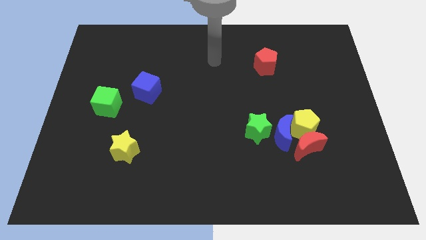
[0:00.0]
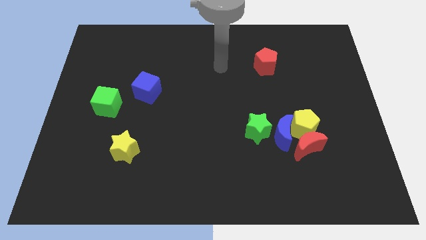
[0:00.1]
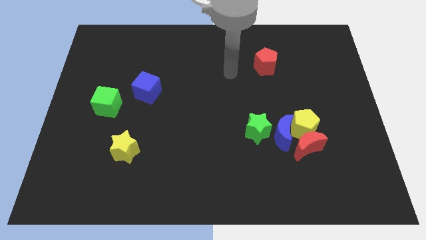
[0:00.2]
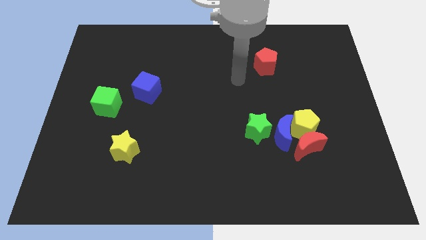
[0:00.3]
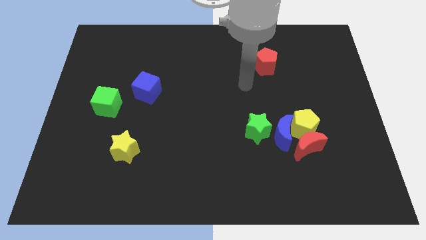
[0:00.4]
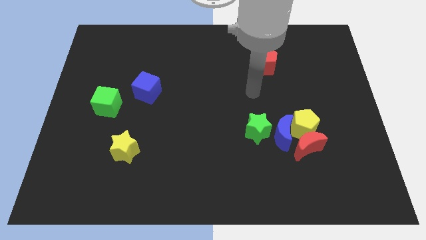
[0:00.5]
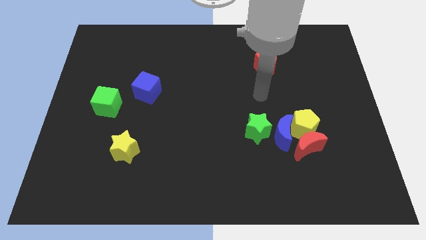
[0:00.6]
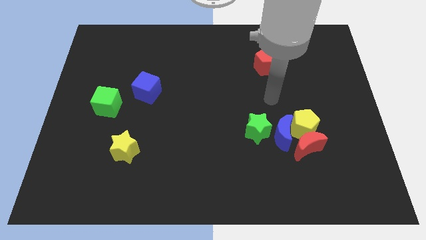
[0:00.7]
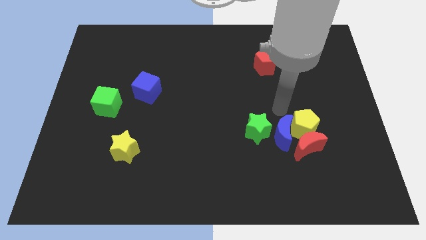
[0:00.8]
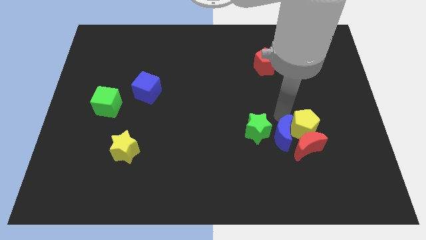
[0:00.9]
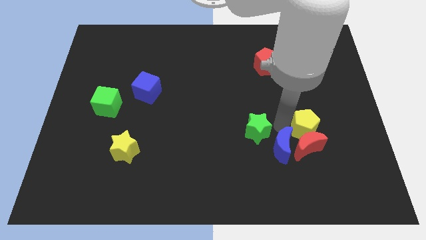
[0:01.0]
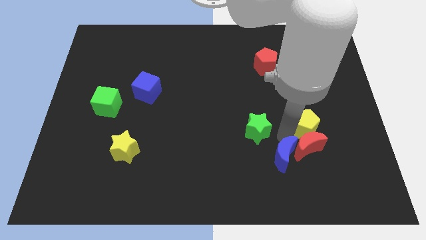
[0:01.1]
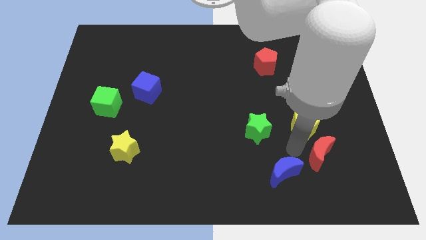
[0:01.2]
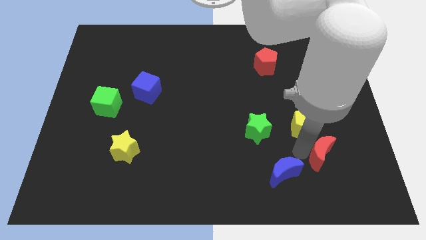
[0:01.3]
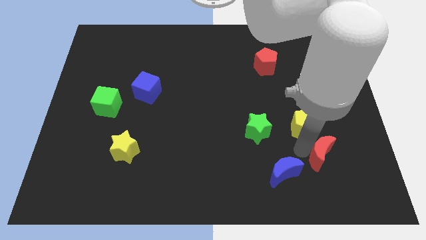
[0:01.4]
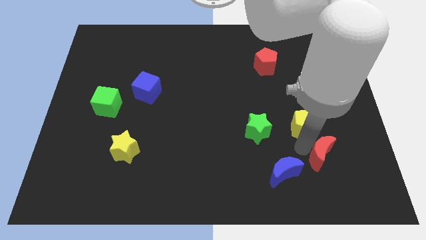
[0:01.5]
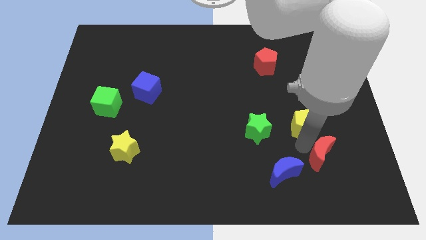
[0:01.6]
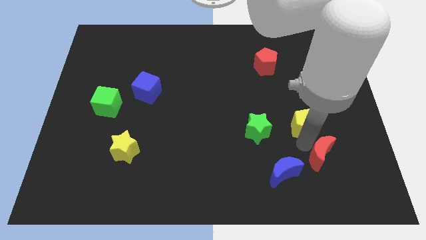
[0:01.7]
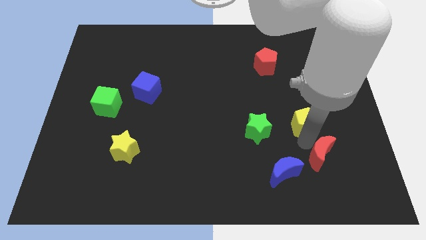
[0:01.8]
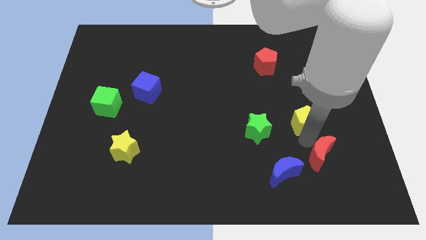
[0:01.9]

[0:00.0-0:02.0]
move the yellow pentagon away from the red moon and blue moon

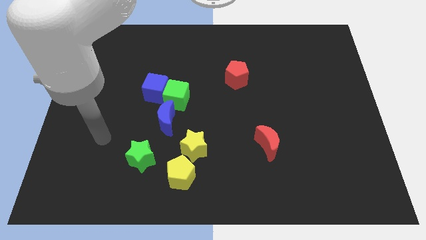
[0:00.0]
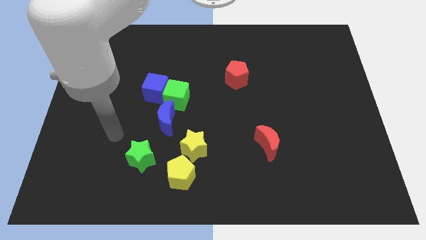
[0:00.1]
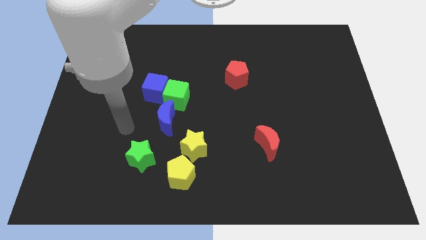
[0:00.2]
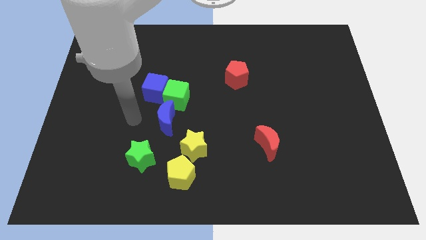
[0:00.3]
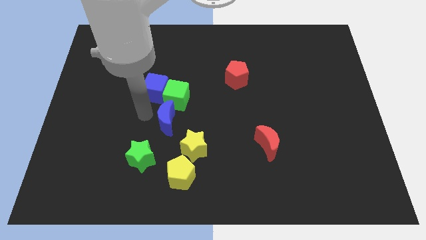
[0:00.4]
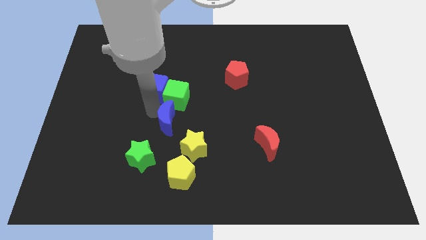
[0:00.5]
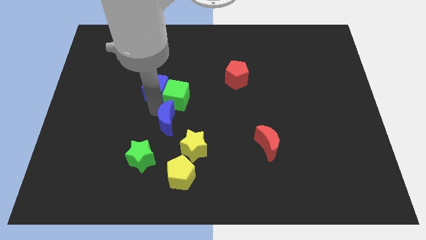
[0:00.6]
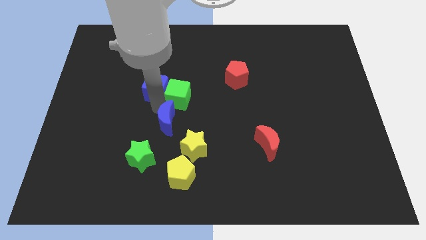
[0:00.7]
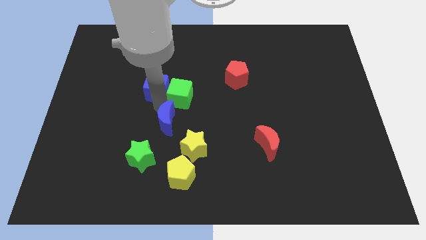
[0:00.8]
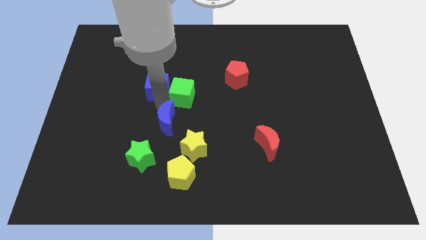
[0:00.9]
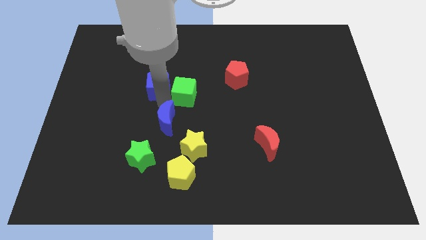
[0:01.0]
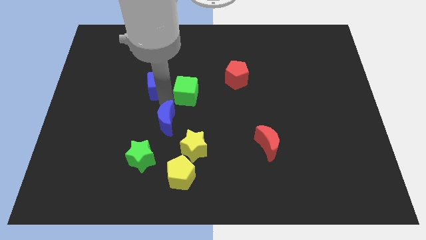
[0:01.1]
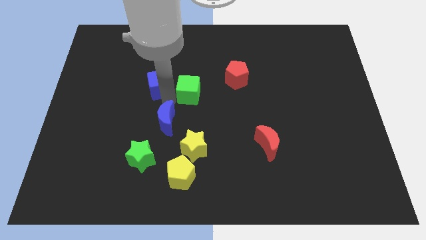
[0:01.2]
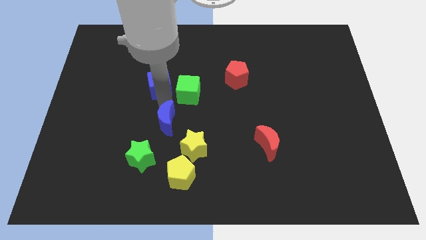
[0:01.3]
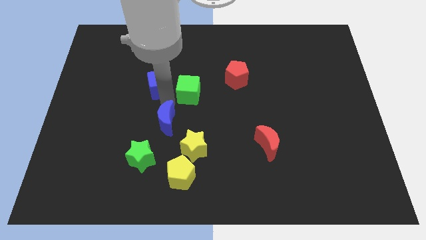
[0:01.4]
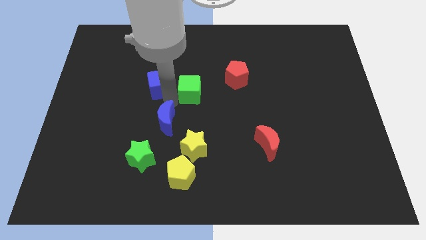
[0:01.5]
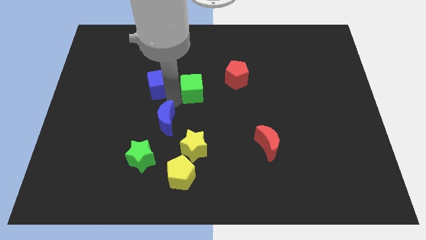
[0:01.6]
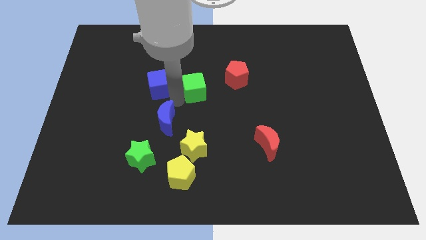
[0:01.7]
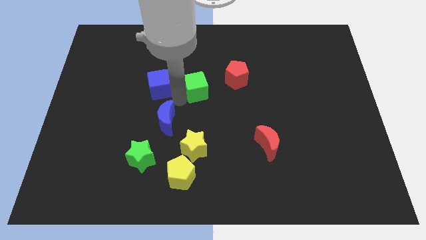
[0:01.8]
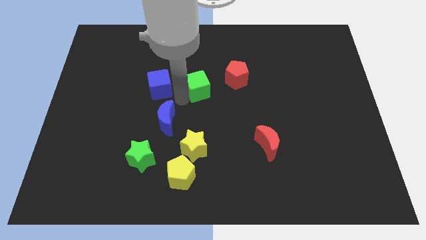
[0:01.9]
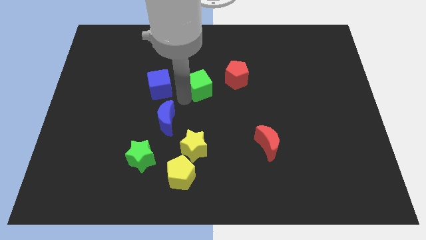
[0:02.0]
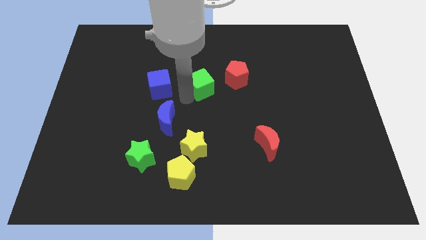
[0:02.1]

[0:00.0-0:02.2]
separate the green cube from the blue cube and blue moon

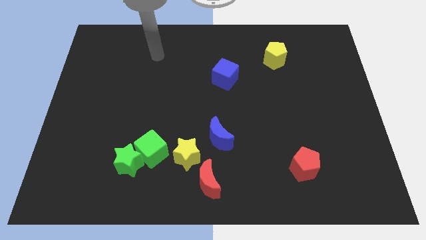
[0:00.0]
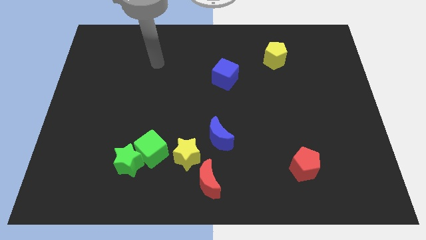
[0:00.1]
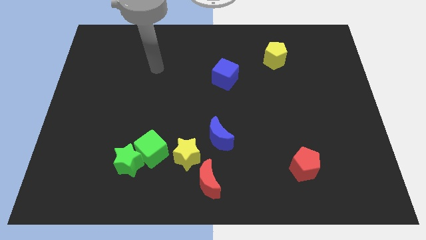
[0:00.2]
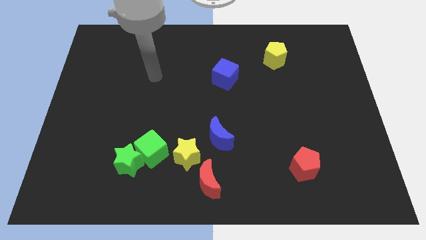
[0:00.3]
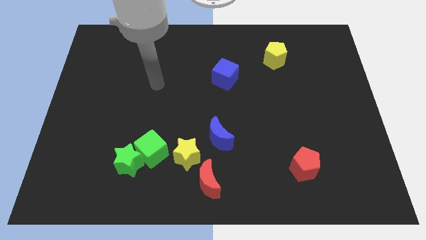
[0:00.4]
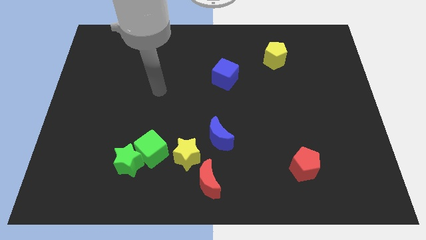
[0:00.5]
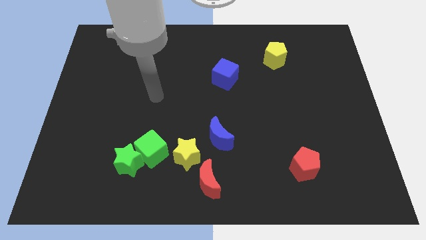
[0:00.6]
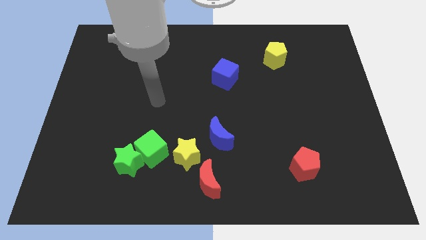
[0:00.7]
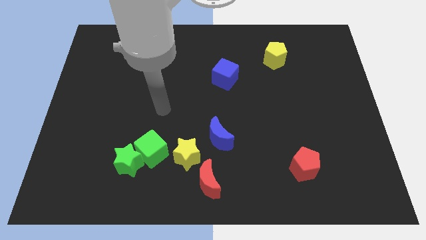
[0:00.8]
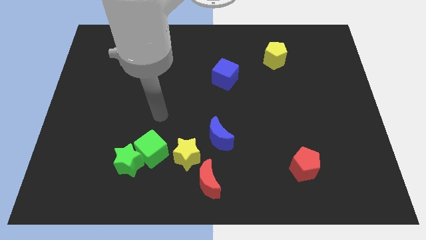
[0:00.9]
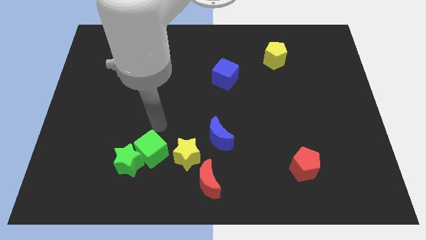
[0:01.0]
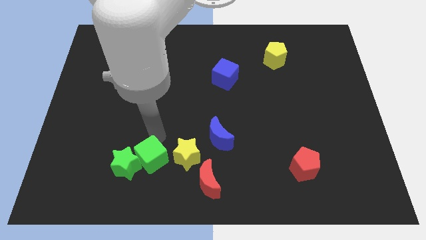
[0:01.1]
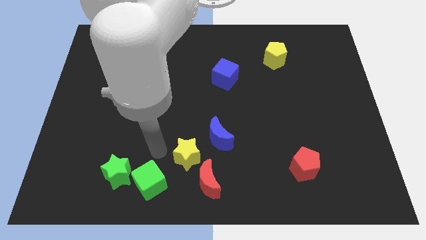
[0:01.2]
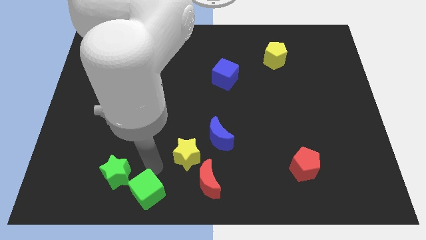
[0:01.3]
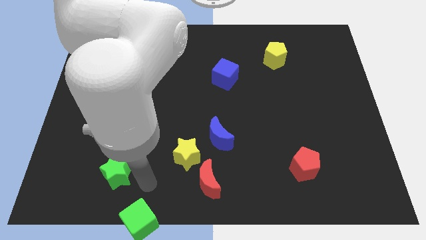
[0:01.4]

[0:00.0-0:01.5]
pull the green star apart from the green cube

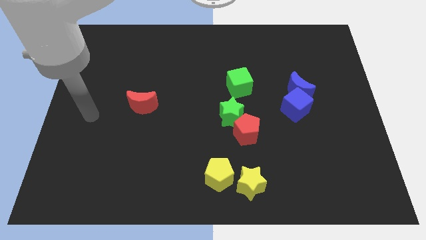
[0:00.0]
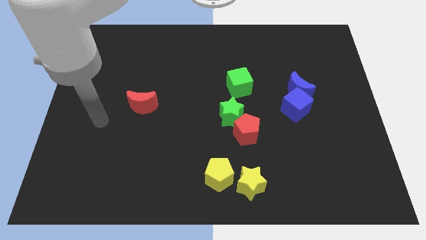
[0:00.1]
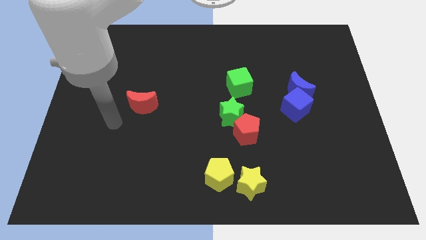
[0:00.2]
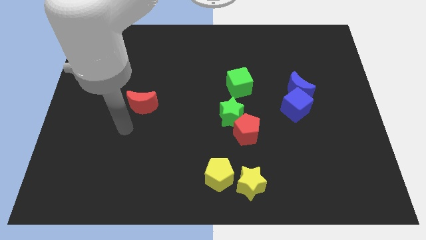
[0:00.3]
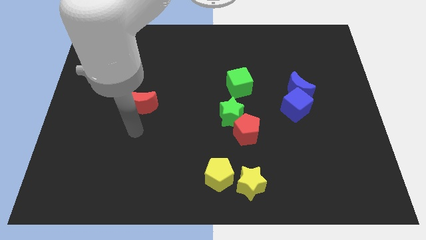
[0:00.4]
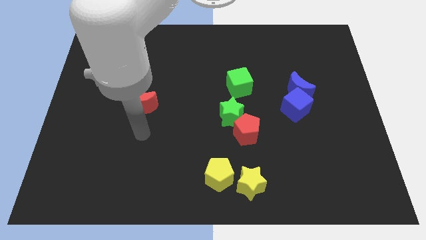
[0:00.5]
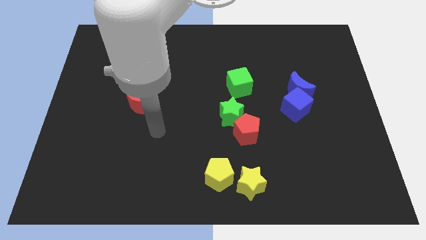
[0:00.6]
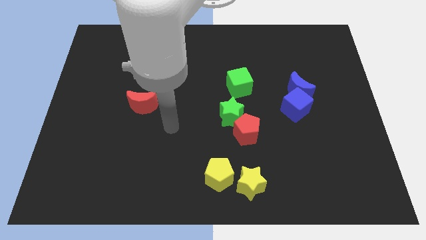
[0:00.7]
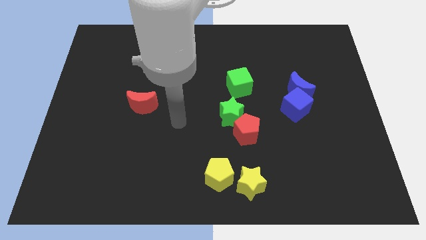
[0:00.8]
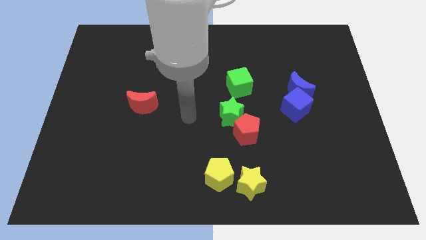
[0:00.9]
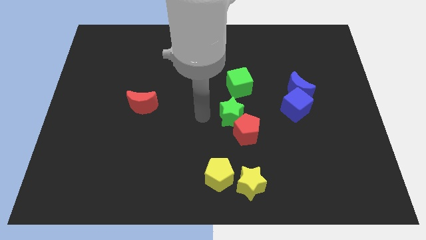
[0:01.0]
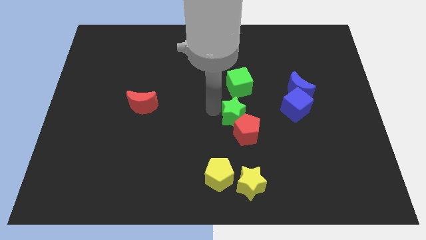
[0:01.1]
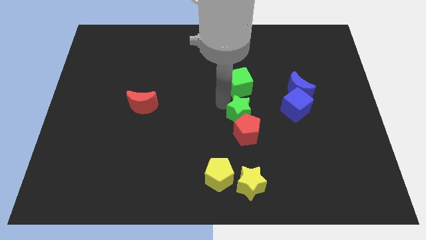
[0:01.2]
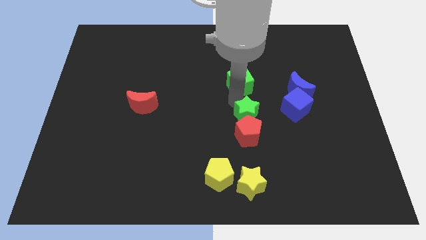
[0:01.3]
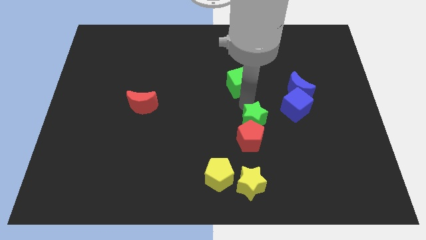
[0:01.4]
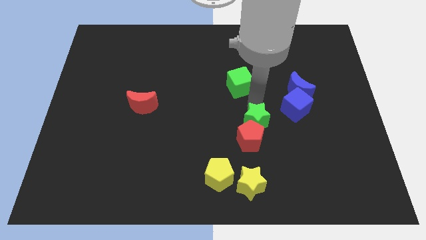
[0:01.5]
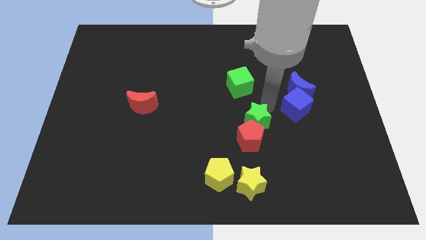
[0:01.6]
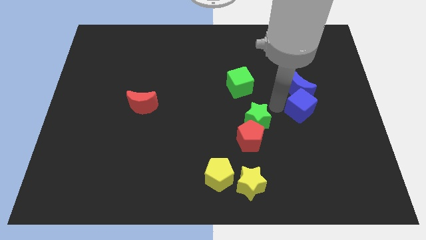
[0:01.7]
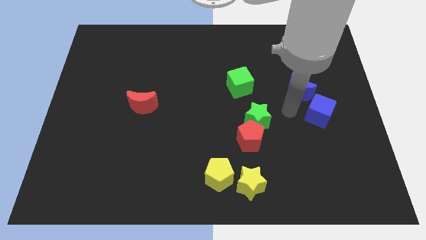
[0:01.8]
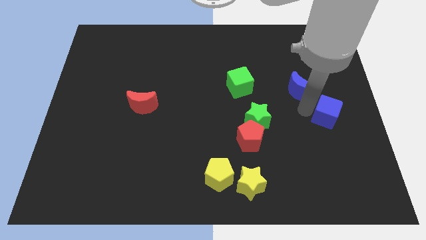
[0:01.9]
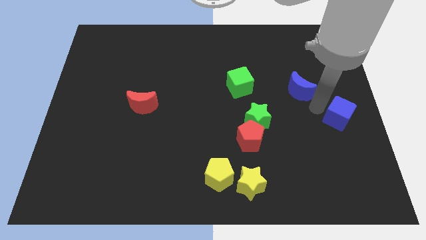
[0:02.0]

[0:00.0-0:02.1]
pull the blue moon apart from the blue cube

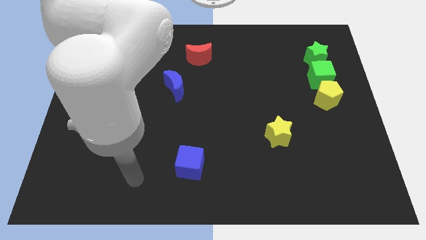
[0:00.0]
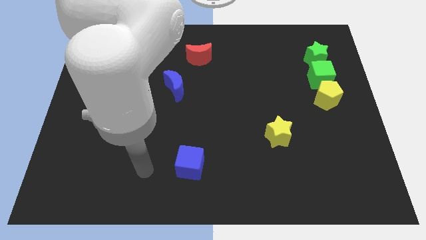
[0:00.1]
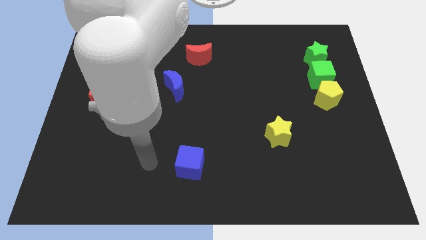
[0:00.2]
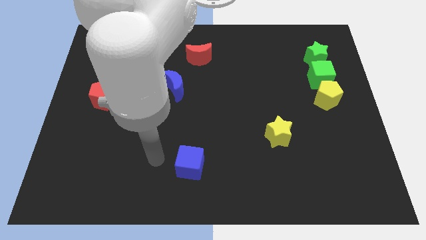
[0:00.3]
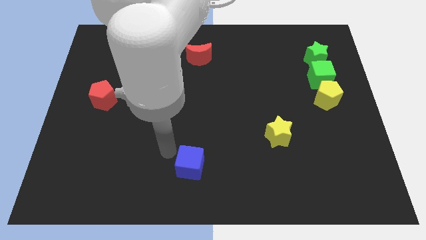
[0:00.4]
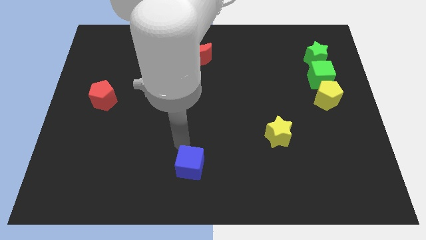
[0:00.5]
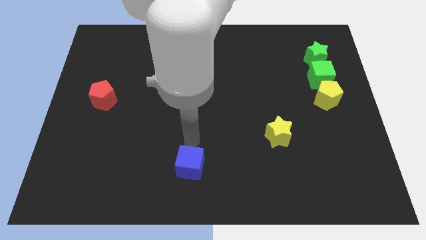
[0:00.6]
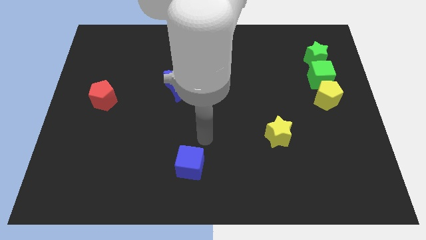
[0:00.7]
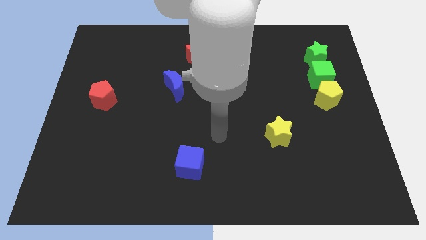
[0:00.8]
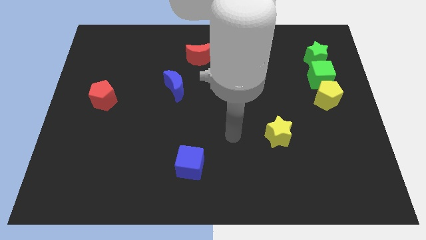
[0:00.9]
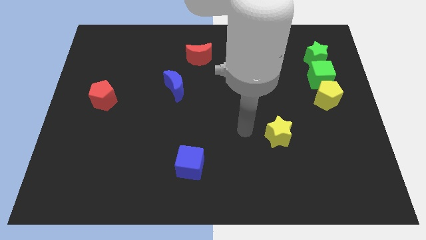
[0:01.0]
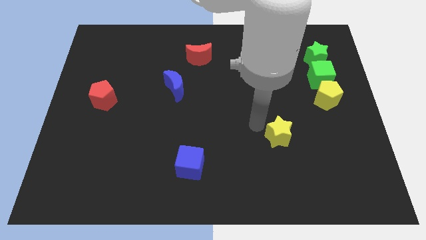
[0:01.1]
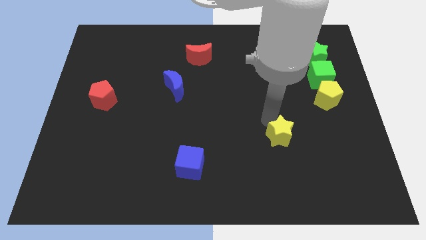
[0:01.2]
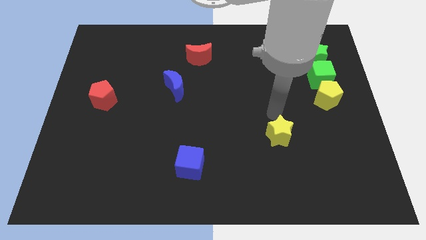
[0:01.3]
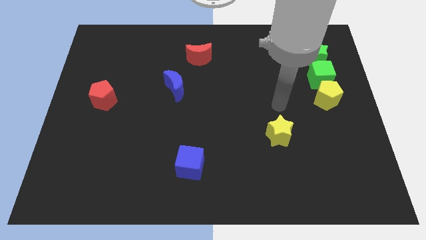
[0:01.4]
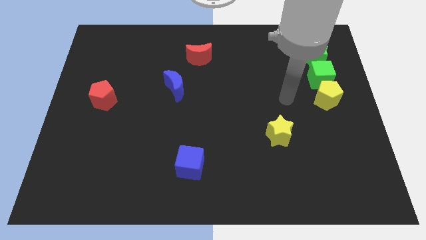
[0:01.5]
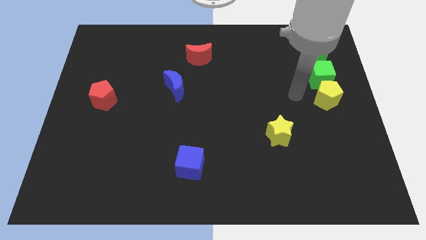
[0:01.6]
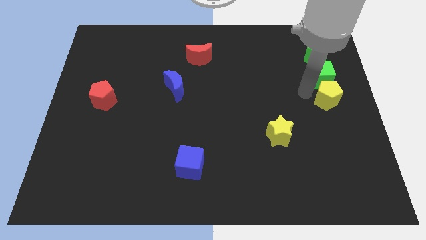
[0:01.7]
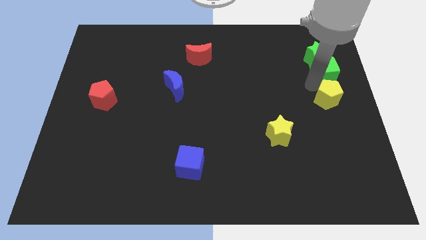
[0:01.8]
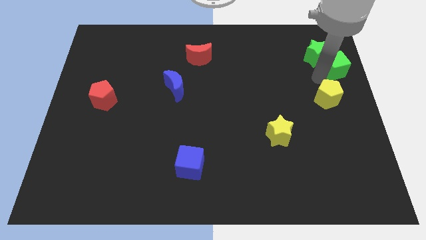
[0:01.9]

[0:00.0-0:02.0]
separate the yellow pentagon from the green cube
